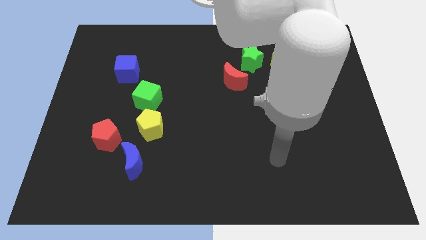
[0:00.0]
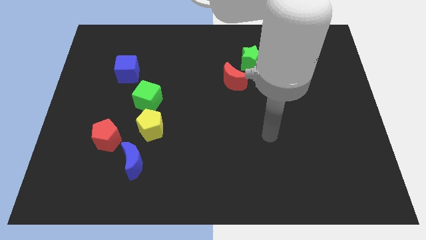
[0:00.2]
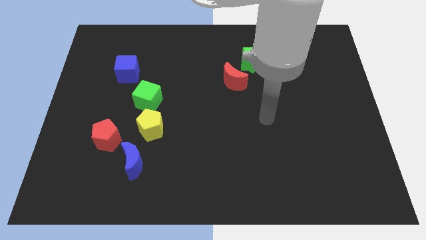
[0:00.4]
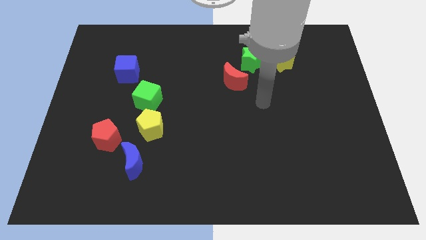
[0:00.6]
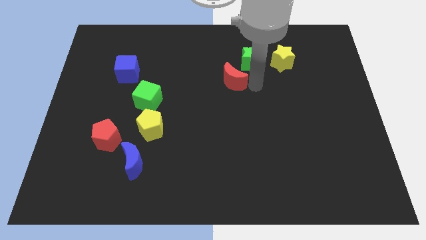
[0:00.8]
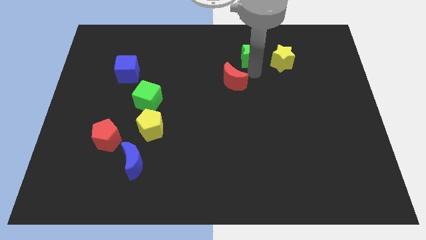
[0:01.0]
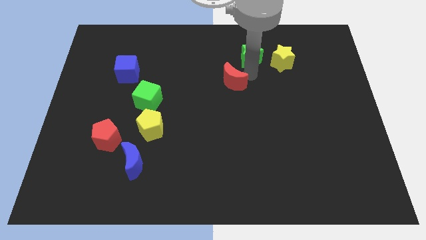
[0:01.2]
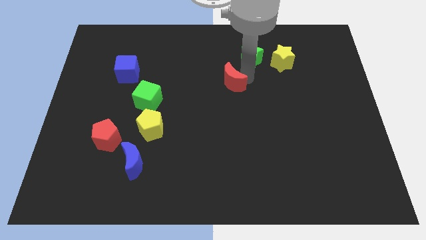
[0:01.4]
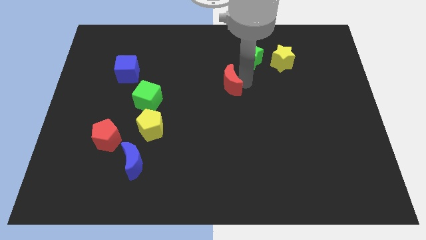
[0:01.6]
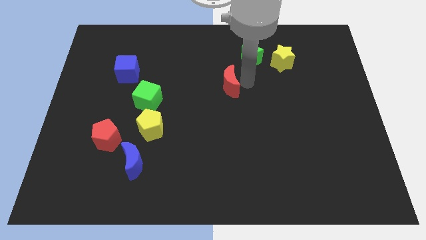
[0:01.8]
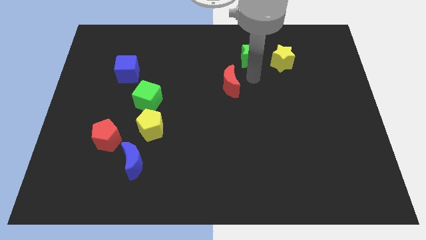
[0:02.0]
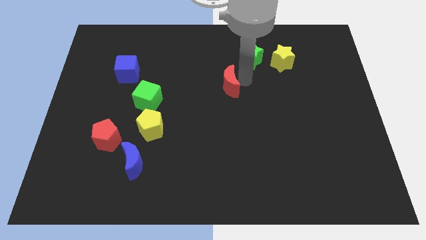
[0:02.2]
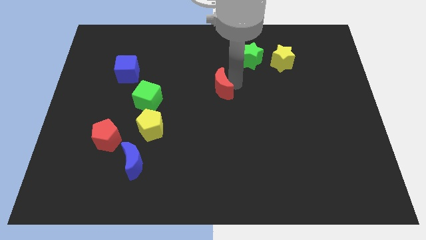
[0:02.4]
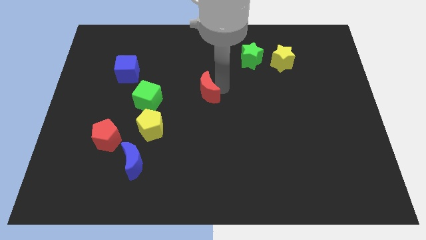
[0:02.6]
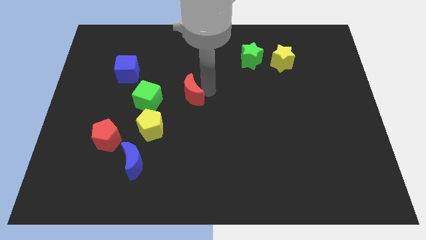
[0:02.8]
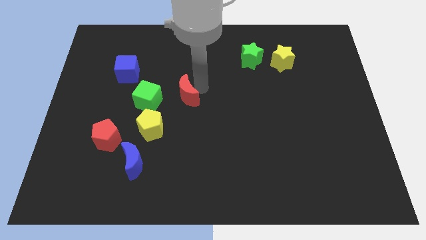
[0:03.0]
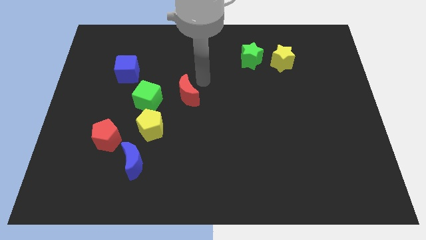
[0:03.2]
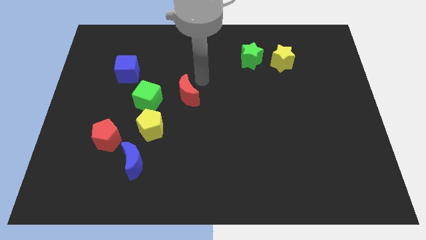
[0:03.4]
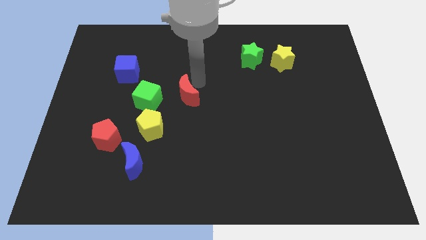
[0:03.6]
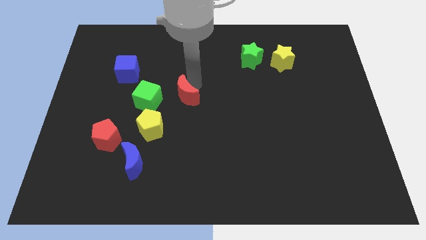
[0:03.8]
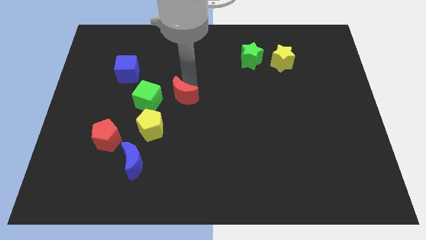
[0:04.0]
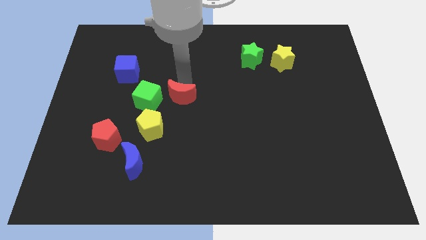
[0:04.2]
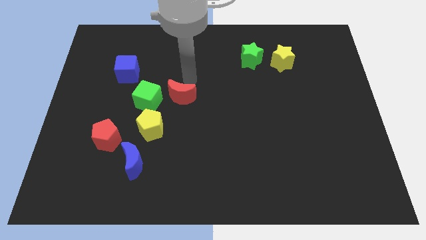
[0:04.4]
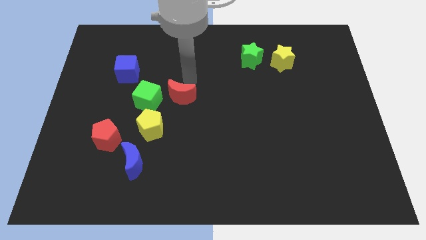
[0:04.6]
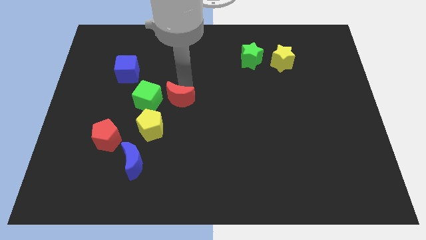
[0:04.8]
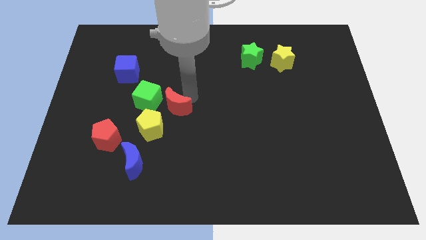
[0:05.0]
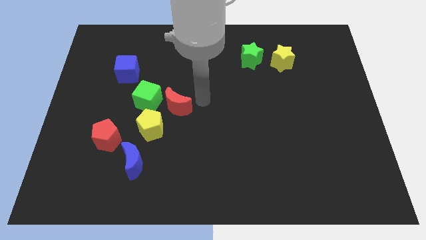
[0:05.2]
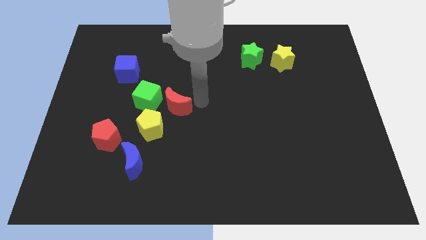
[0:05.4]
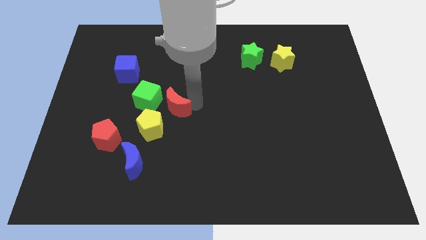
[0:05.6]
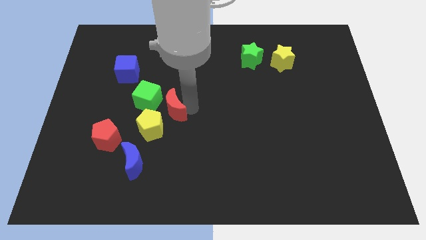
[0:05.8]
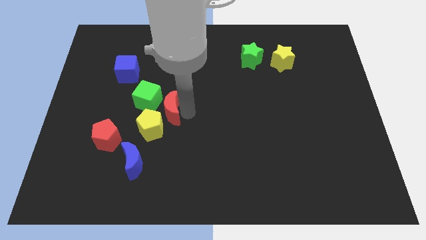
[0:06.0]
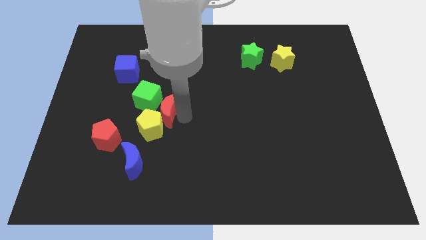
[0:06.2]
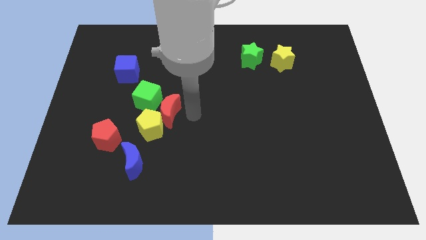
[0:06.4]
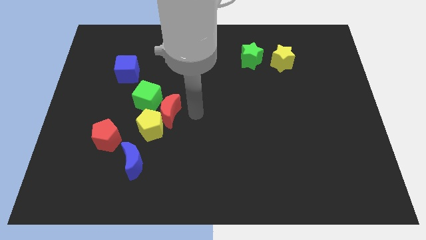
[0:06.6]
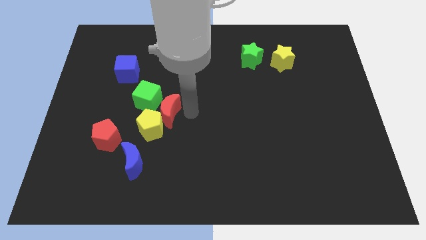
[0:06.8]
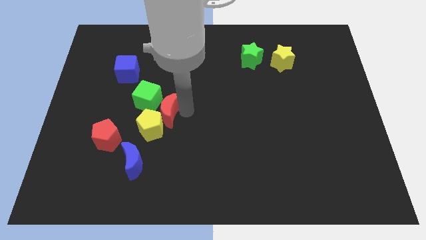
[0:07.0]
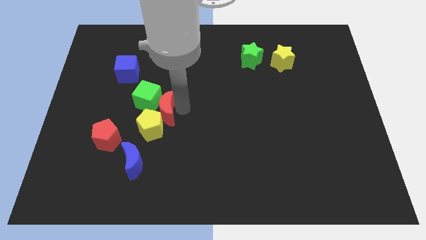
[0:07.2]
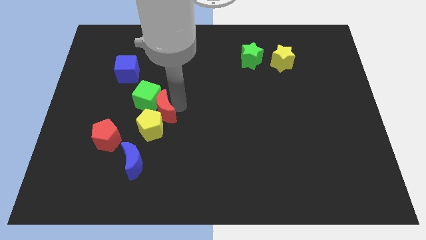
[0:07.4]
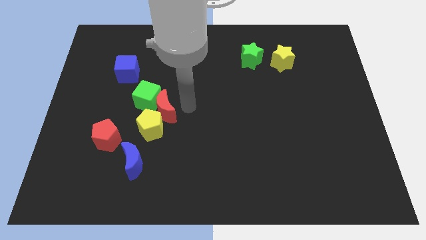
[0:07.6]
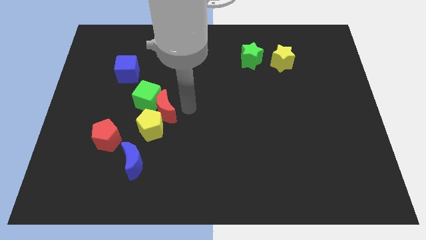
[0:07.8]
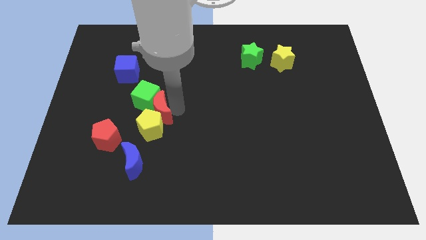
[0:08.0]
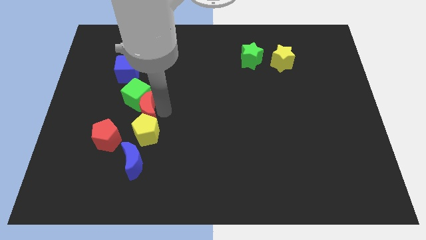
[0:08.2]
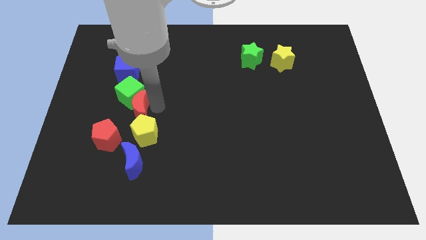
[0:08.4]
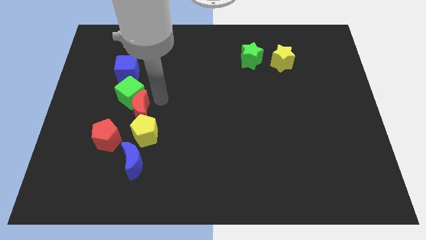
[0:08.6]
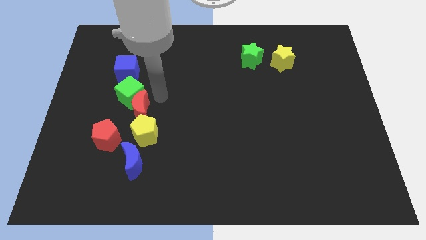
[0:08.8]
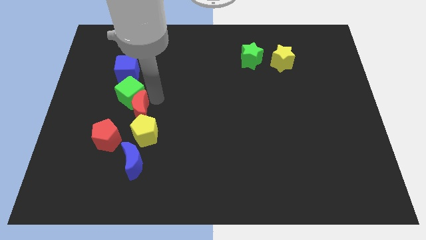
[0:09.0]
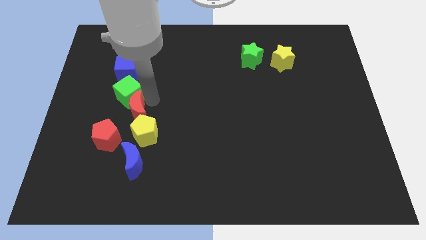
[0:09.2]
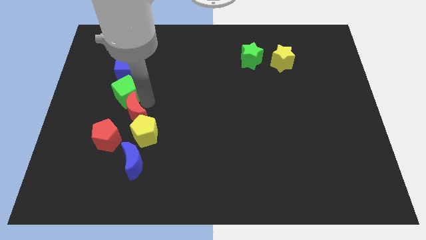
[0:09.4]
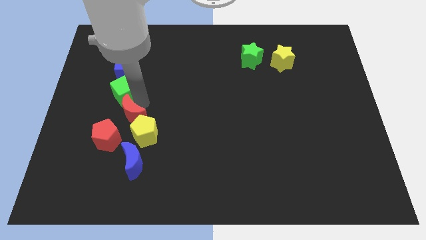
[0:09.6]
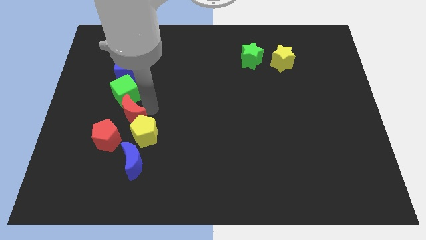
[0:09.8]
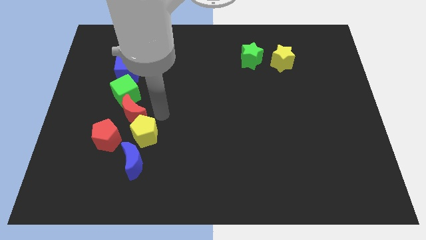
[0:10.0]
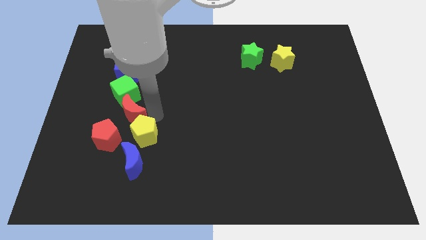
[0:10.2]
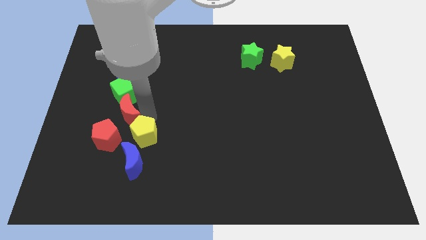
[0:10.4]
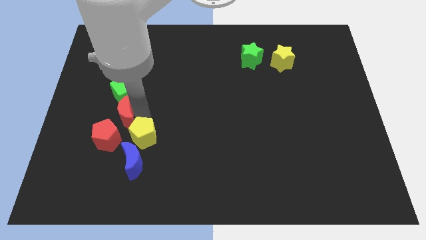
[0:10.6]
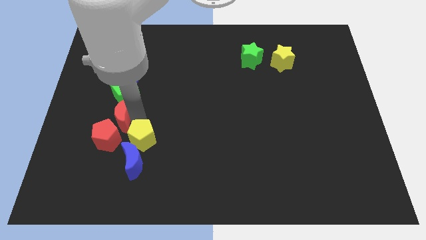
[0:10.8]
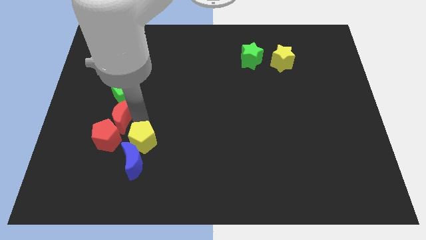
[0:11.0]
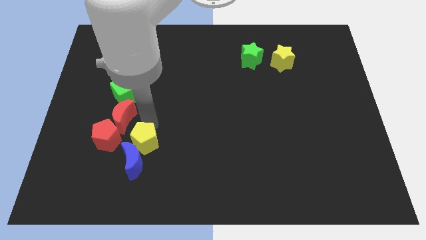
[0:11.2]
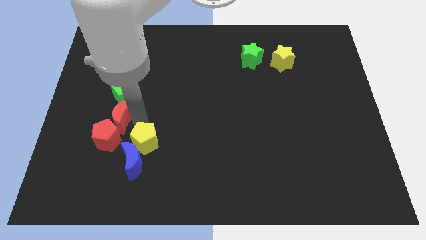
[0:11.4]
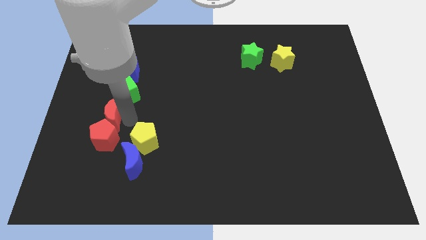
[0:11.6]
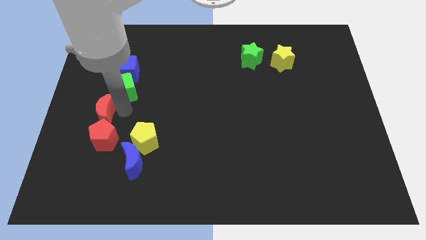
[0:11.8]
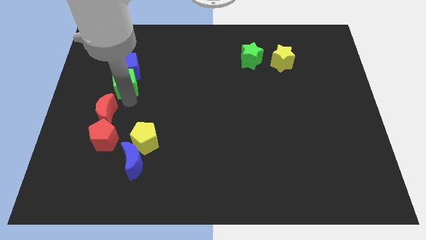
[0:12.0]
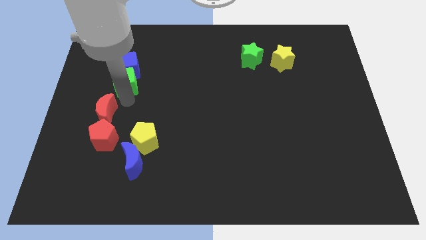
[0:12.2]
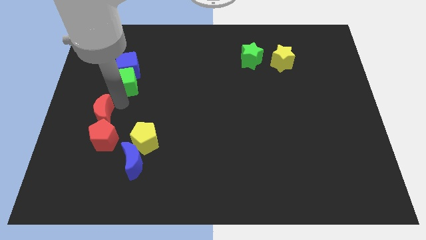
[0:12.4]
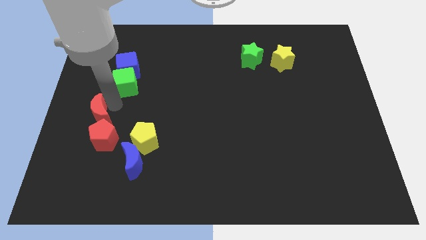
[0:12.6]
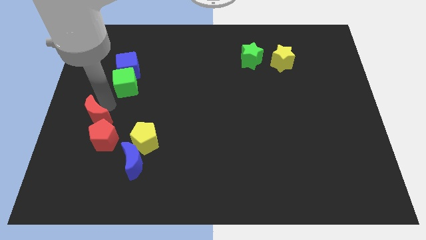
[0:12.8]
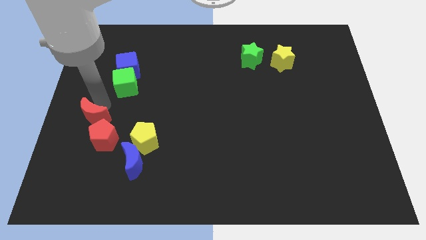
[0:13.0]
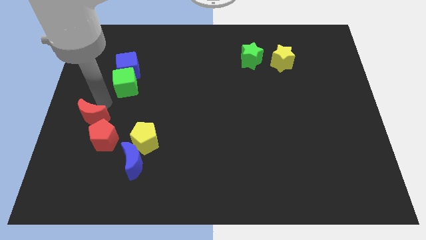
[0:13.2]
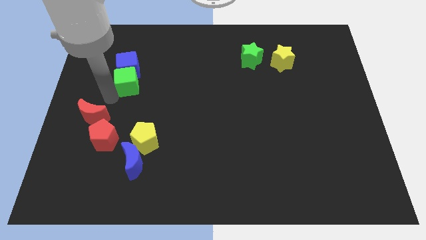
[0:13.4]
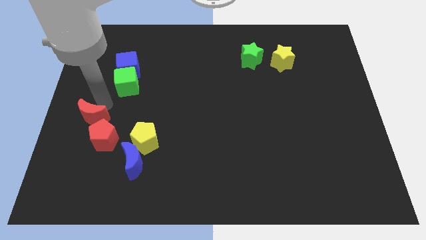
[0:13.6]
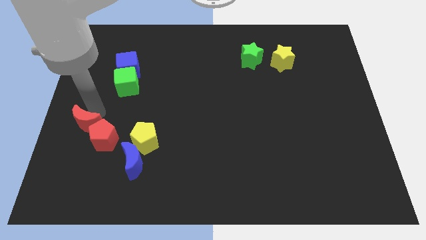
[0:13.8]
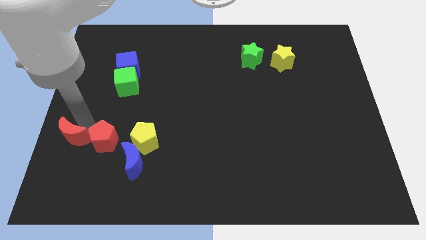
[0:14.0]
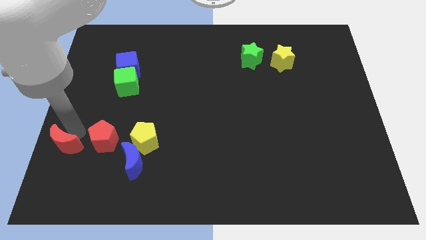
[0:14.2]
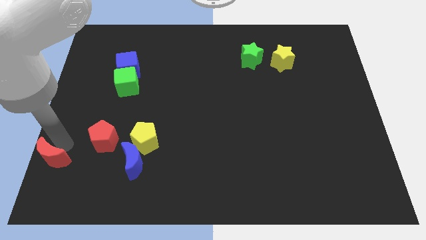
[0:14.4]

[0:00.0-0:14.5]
move the red moon to the bottom left
